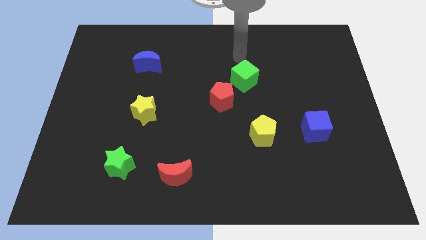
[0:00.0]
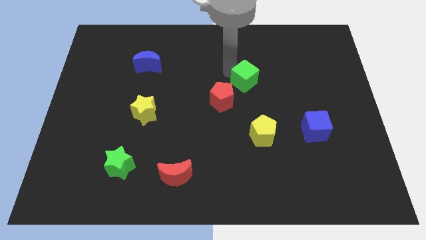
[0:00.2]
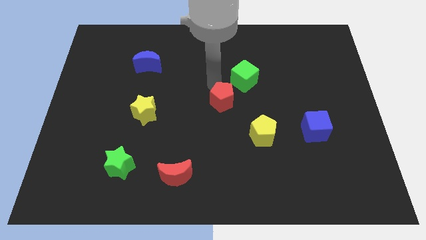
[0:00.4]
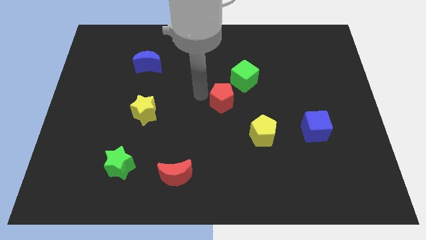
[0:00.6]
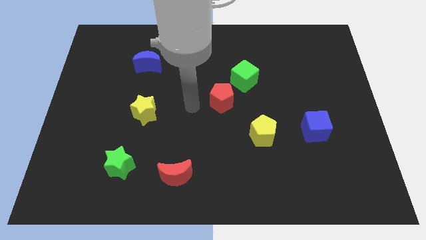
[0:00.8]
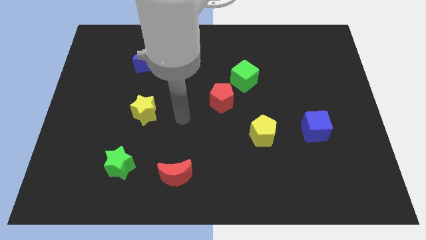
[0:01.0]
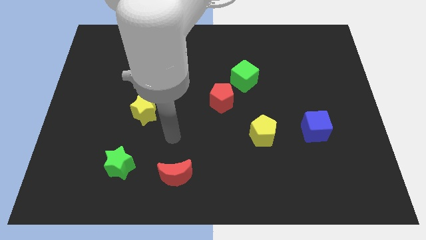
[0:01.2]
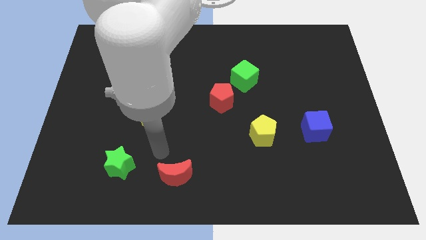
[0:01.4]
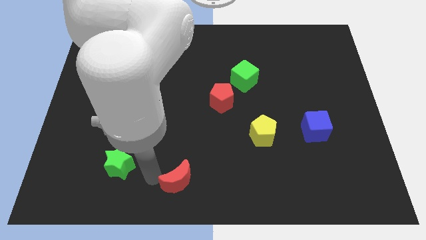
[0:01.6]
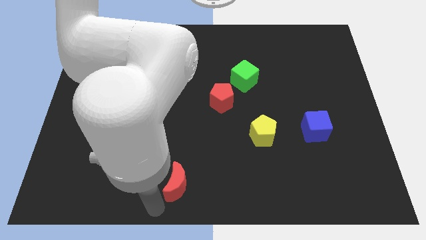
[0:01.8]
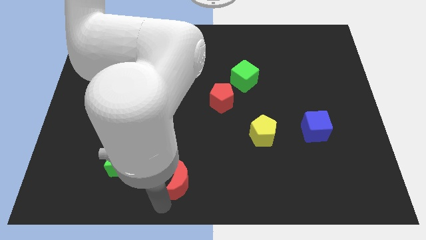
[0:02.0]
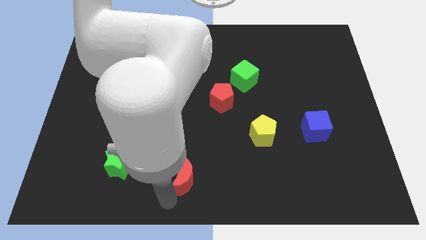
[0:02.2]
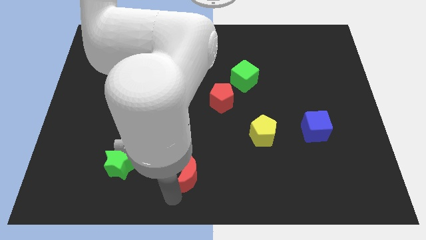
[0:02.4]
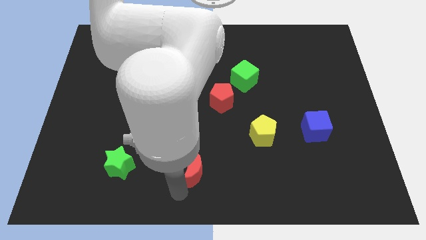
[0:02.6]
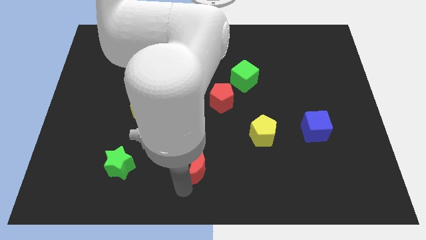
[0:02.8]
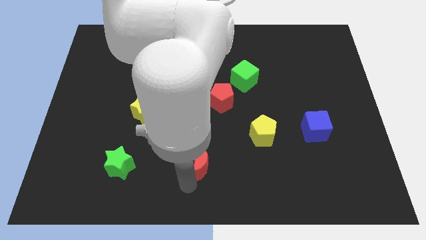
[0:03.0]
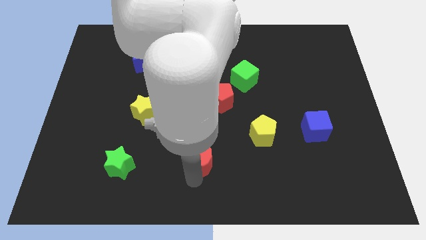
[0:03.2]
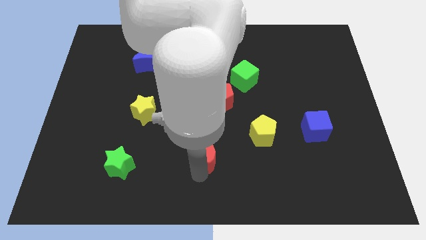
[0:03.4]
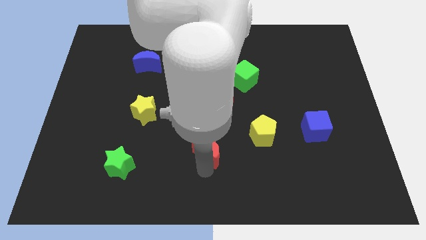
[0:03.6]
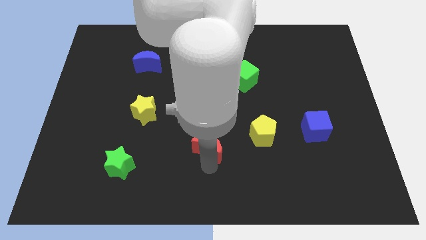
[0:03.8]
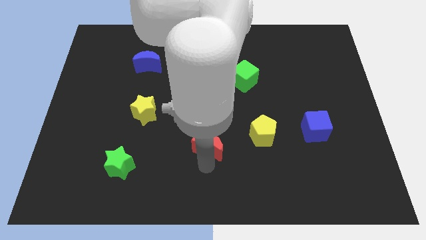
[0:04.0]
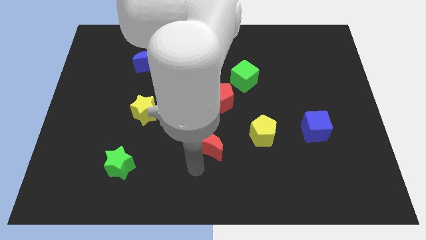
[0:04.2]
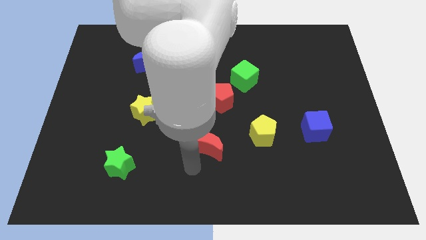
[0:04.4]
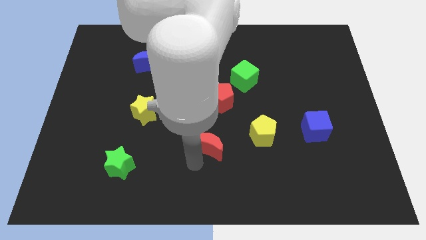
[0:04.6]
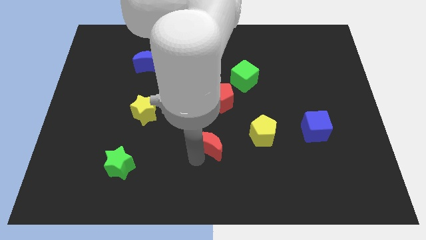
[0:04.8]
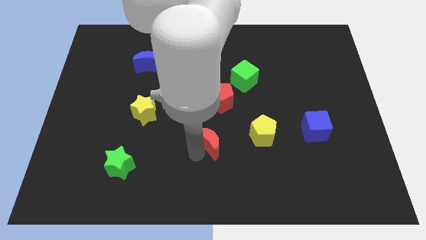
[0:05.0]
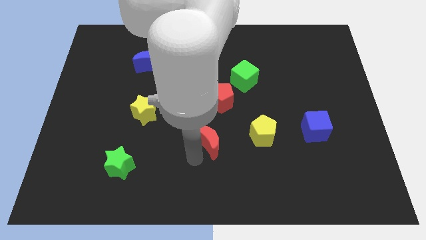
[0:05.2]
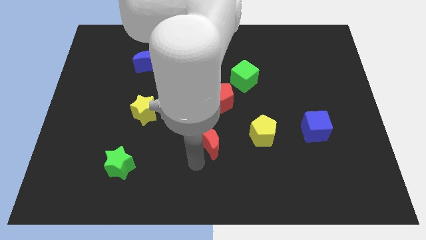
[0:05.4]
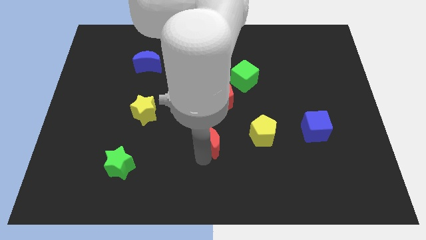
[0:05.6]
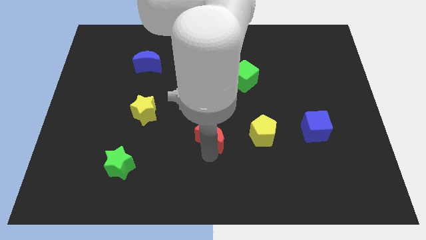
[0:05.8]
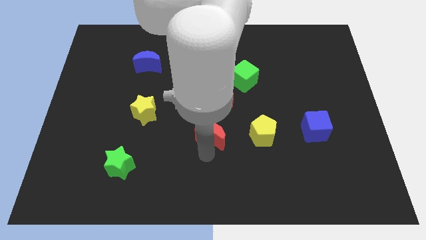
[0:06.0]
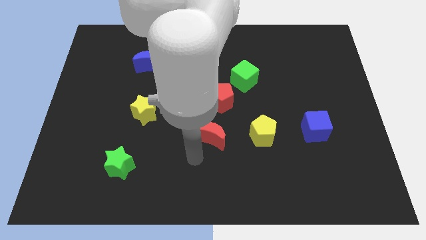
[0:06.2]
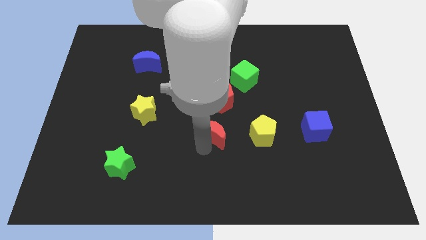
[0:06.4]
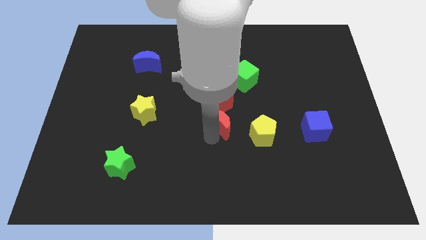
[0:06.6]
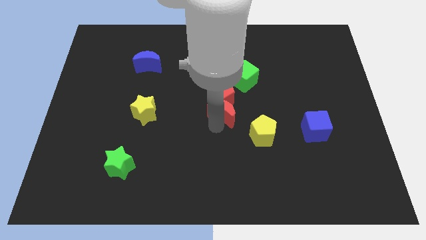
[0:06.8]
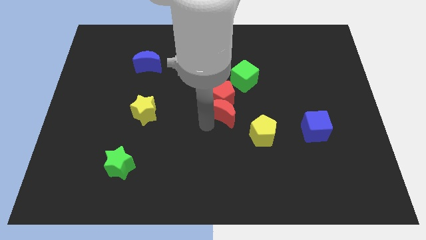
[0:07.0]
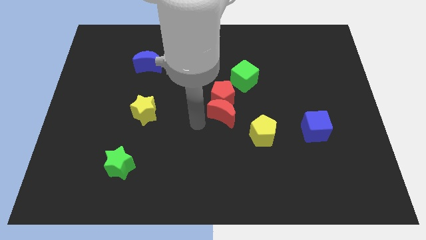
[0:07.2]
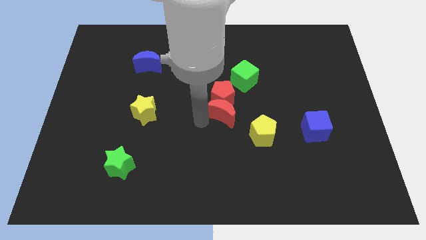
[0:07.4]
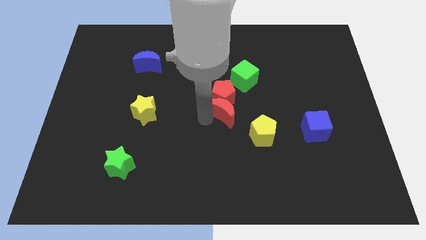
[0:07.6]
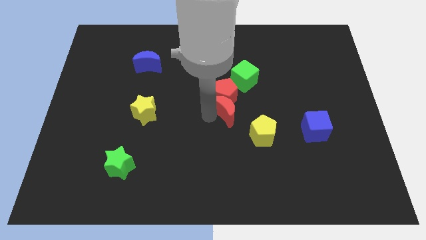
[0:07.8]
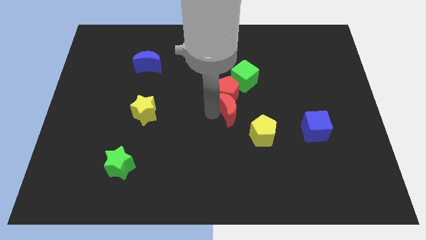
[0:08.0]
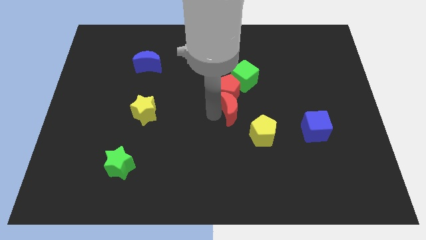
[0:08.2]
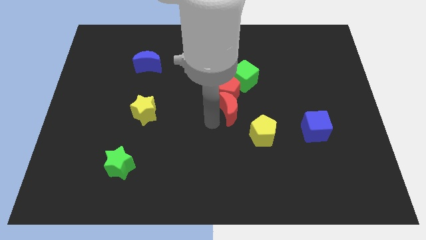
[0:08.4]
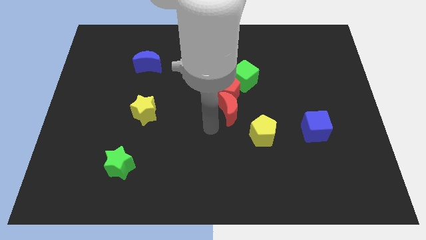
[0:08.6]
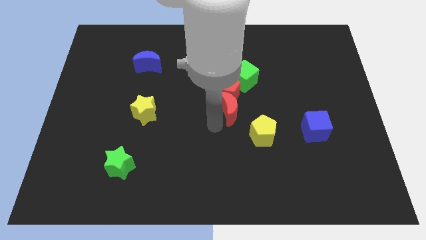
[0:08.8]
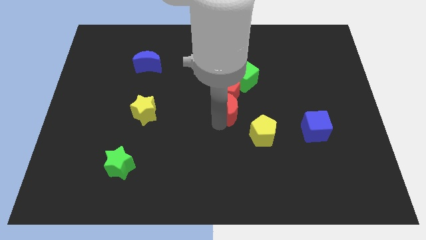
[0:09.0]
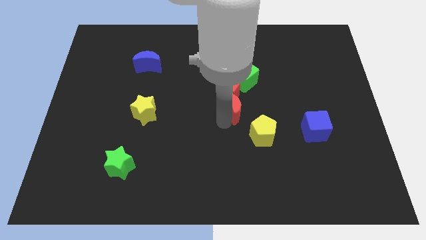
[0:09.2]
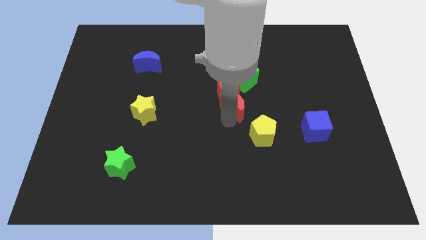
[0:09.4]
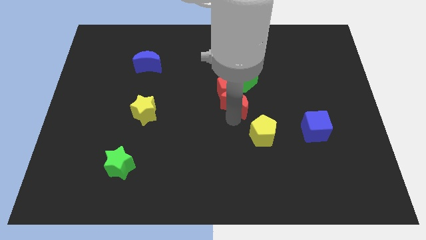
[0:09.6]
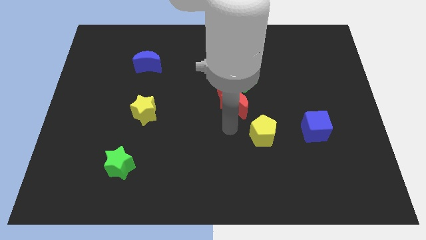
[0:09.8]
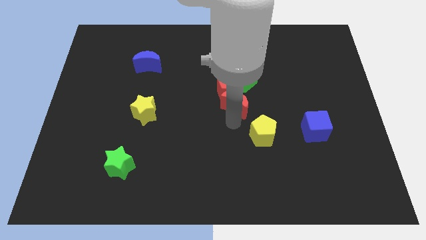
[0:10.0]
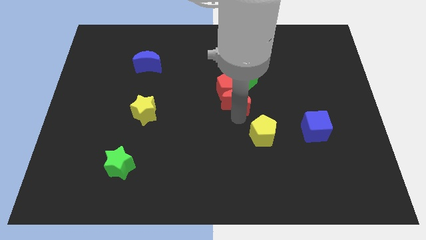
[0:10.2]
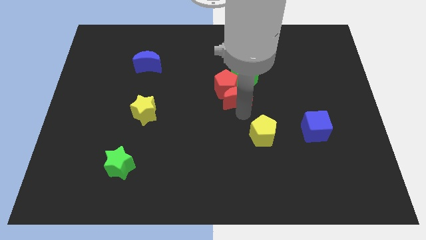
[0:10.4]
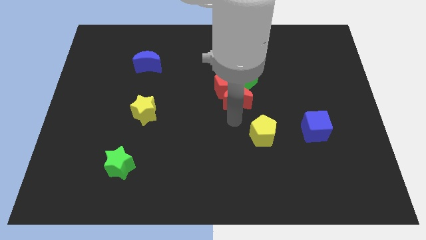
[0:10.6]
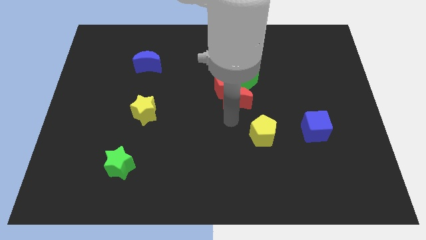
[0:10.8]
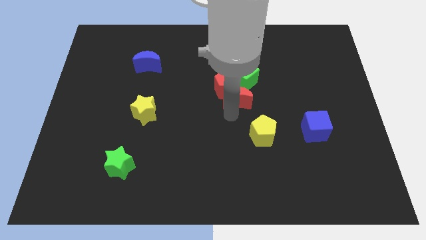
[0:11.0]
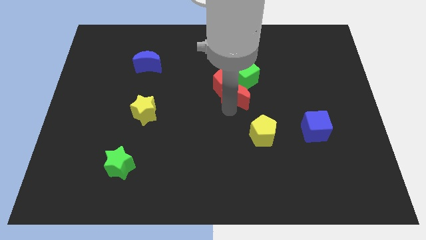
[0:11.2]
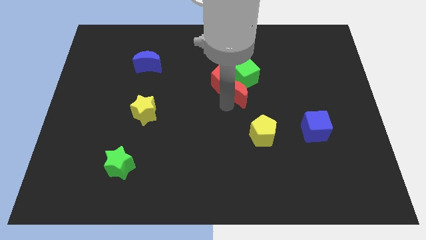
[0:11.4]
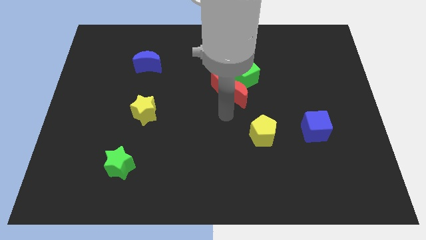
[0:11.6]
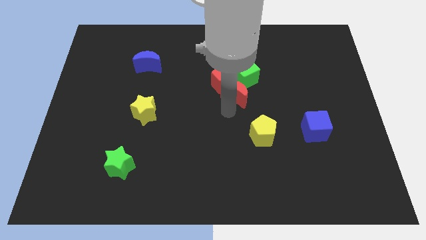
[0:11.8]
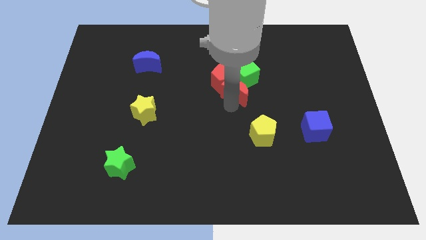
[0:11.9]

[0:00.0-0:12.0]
slide the red moon close to the green cube

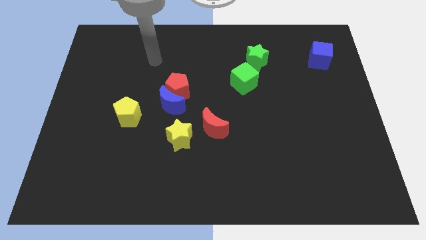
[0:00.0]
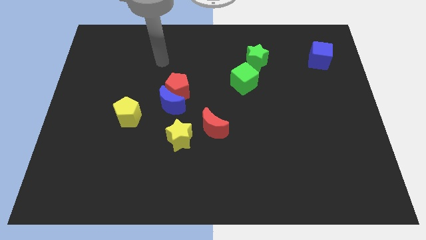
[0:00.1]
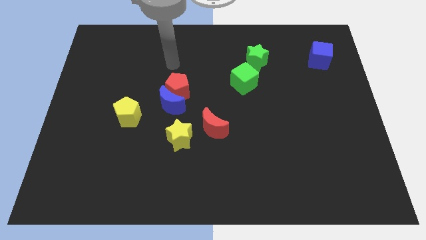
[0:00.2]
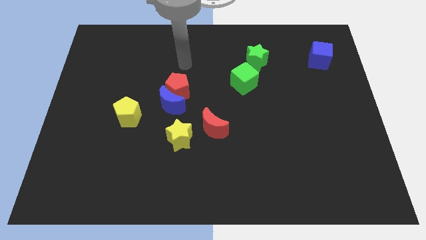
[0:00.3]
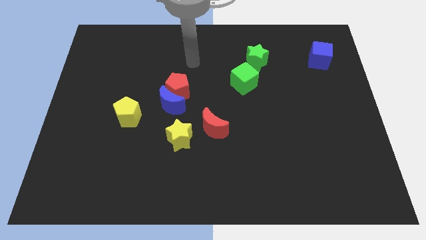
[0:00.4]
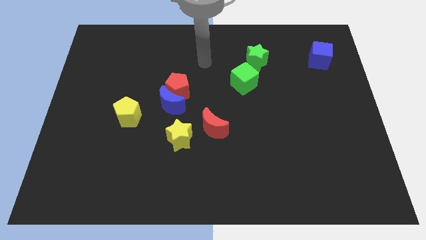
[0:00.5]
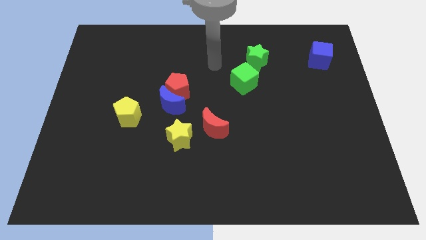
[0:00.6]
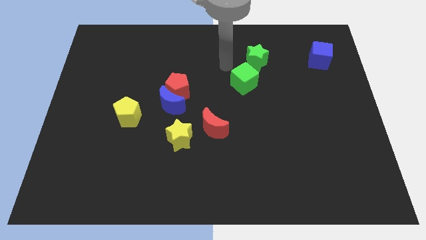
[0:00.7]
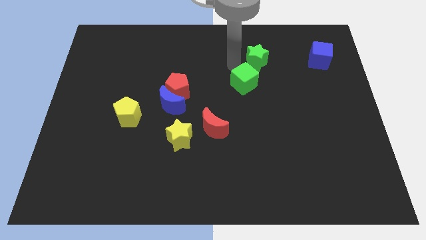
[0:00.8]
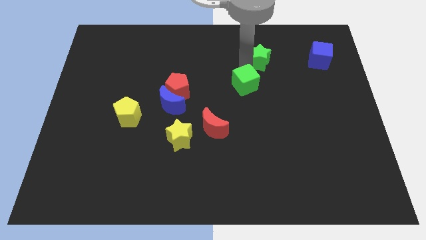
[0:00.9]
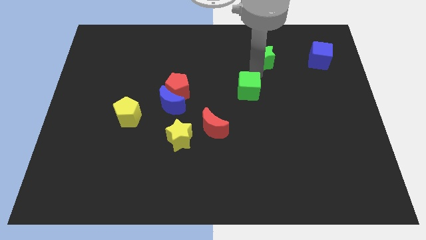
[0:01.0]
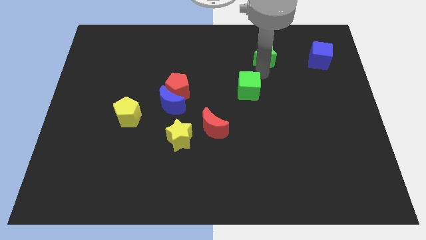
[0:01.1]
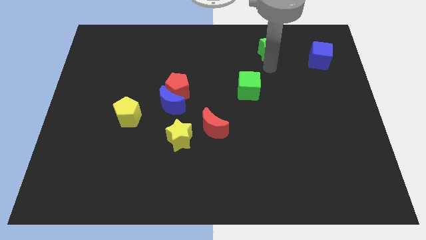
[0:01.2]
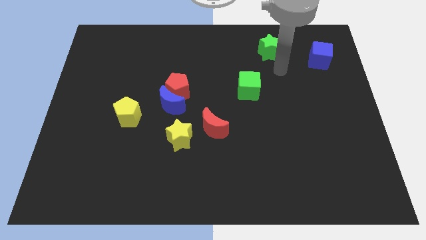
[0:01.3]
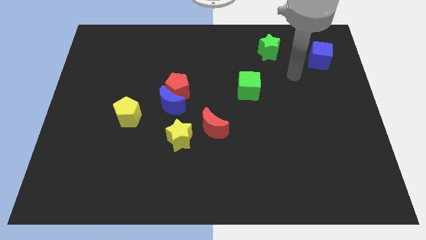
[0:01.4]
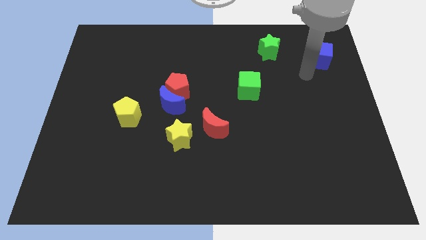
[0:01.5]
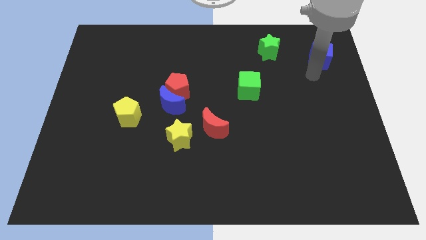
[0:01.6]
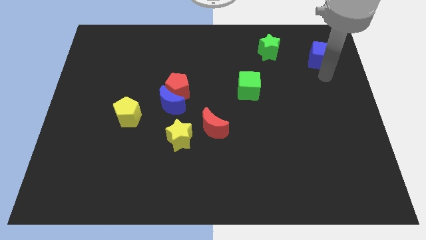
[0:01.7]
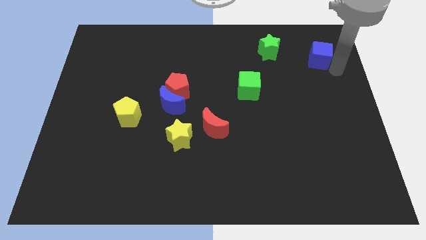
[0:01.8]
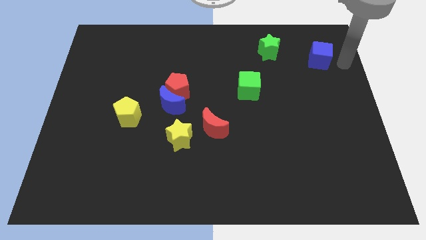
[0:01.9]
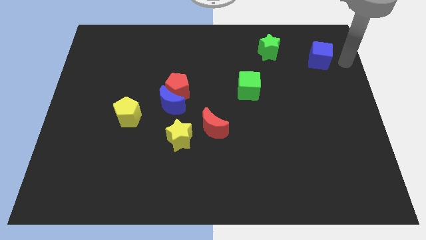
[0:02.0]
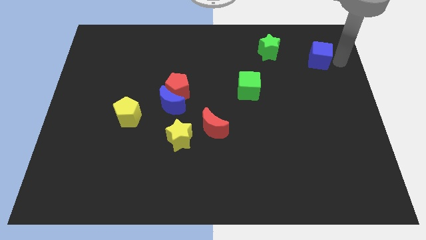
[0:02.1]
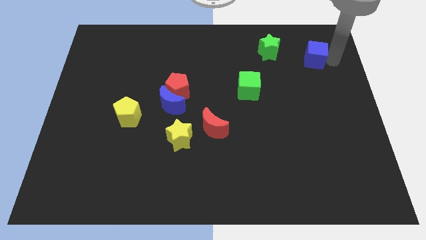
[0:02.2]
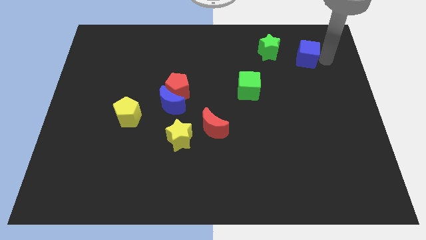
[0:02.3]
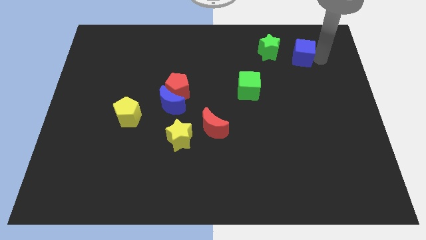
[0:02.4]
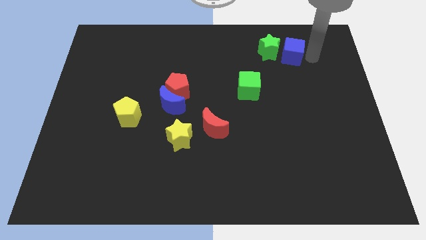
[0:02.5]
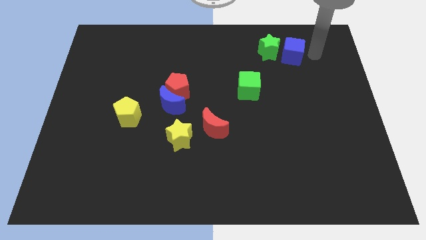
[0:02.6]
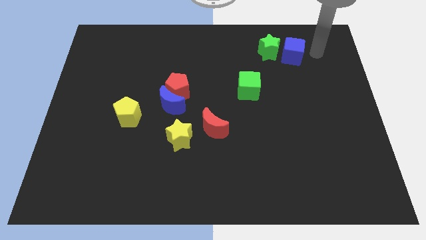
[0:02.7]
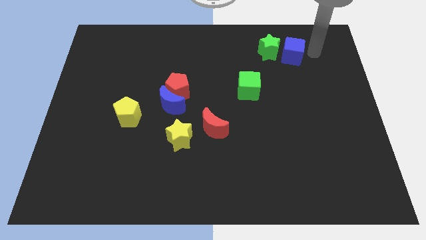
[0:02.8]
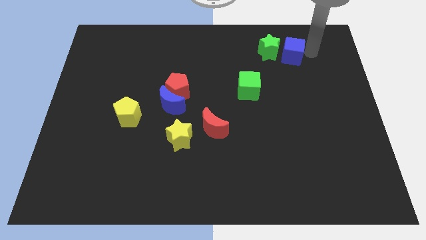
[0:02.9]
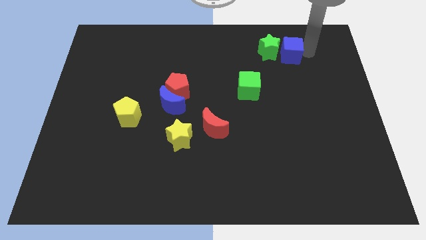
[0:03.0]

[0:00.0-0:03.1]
move the blue cube next to the green star
